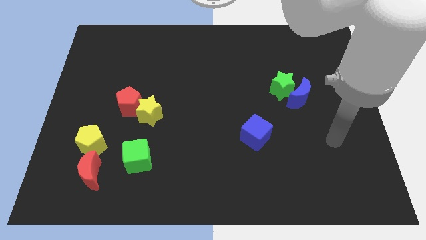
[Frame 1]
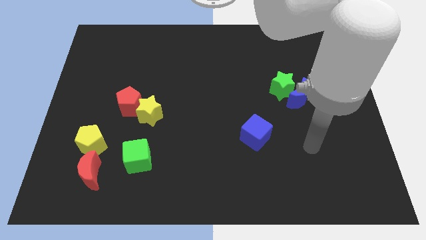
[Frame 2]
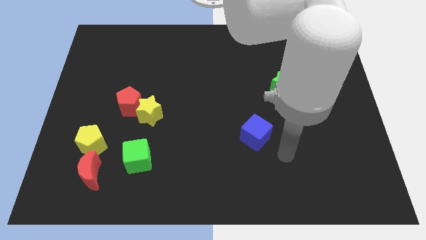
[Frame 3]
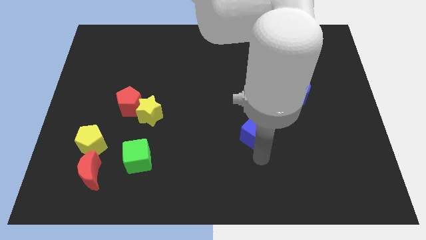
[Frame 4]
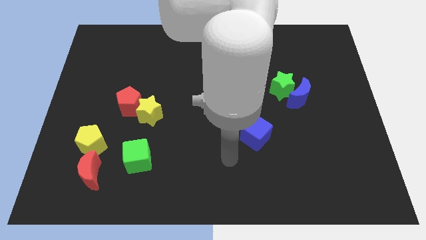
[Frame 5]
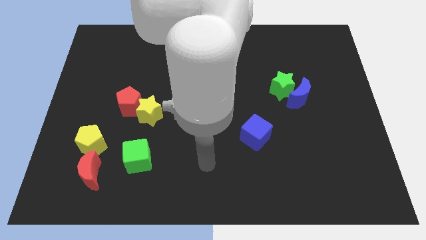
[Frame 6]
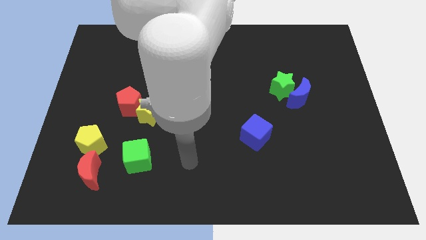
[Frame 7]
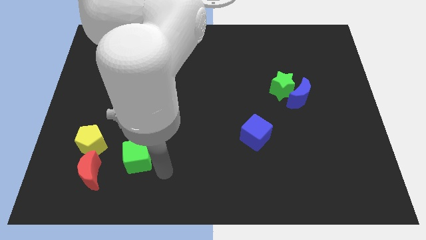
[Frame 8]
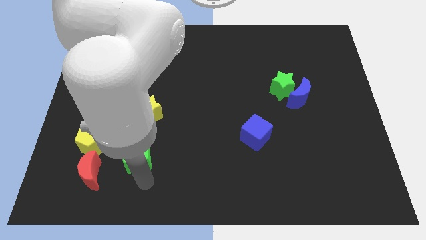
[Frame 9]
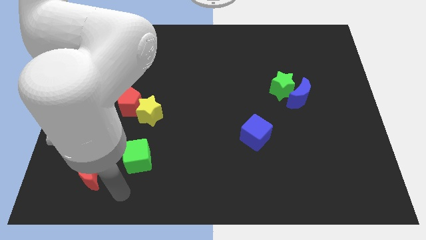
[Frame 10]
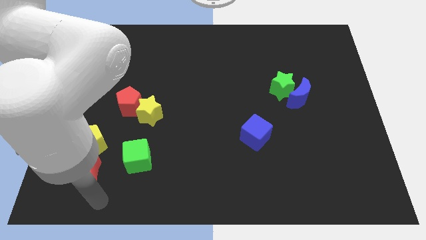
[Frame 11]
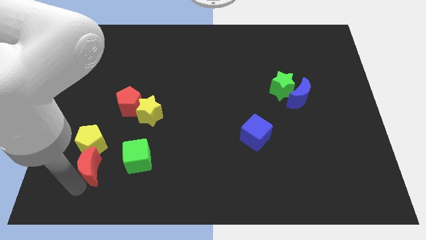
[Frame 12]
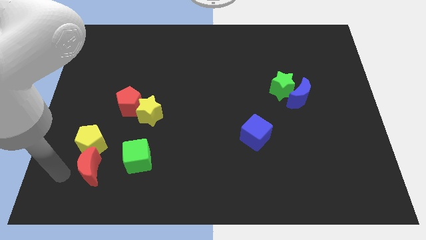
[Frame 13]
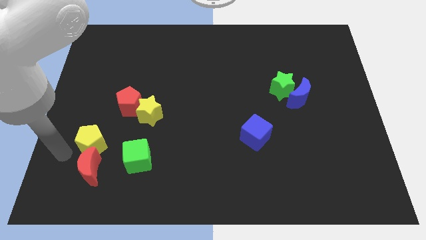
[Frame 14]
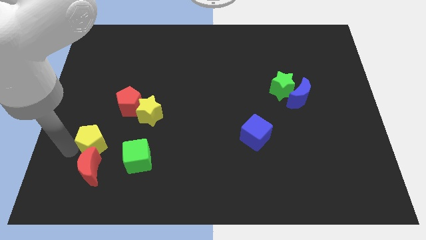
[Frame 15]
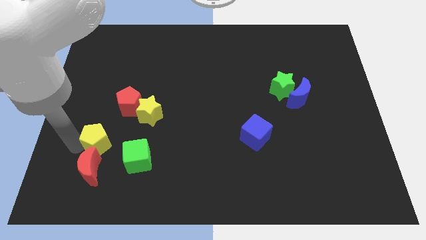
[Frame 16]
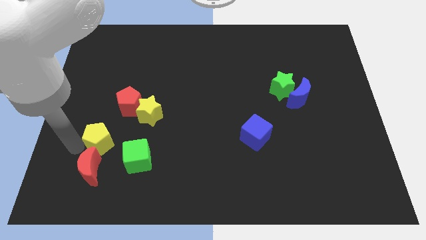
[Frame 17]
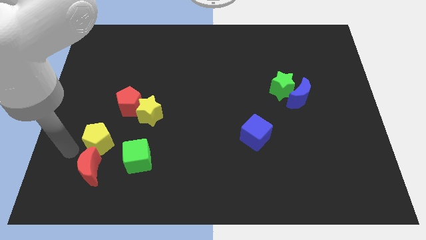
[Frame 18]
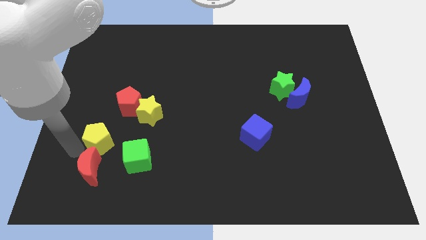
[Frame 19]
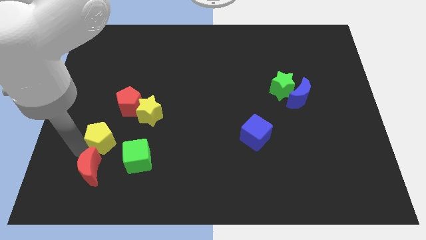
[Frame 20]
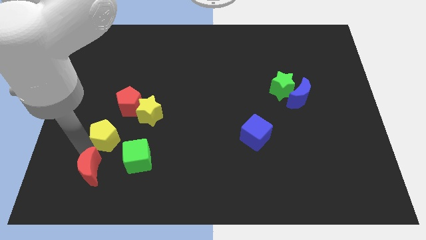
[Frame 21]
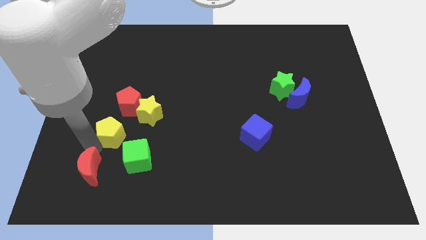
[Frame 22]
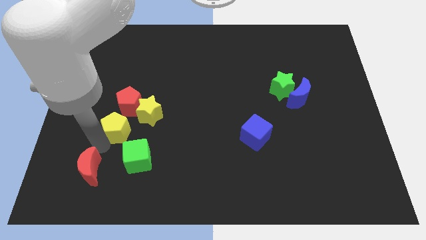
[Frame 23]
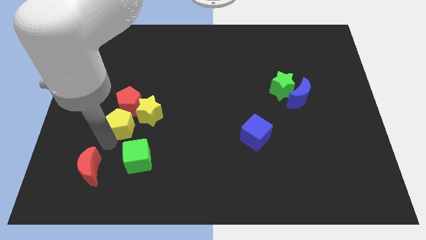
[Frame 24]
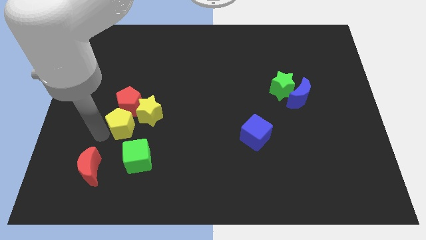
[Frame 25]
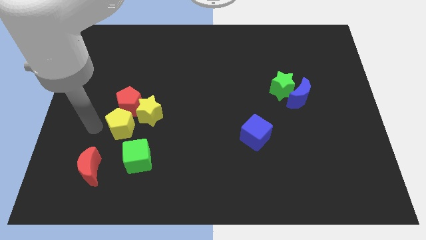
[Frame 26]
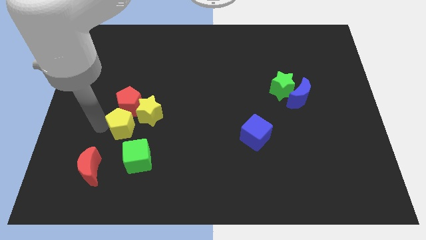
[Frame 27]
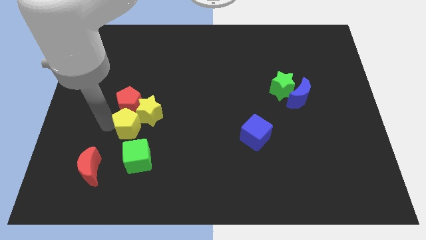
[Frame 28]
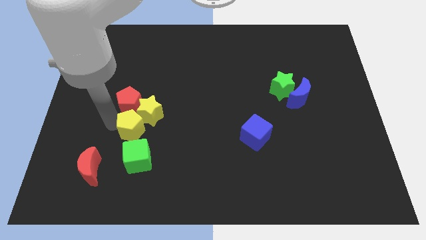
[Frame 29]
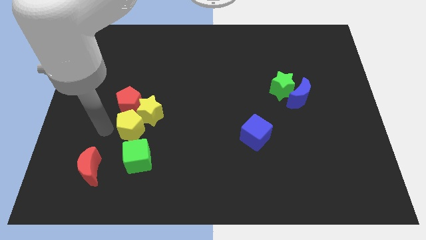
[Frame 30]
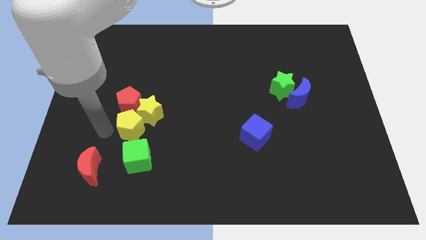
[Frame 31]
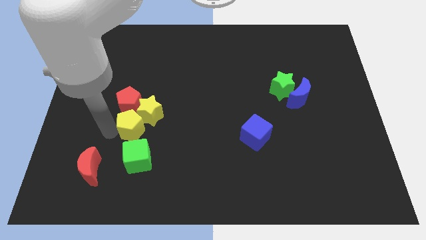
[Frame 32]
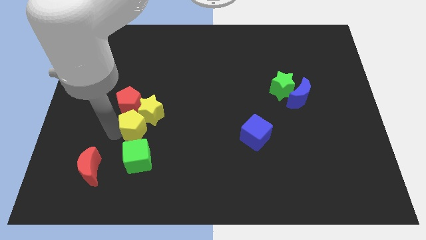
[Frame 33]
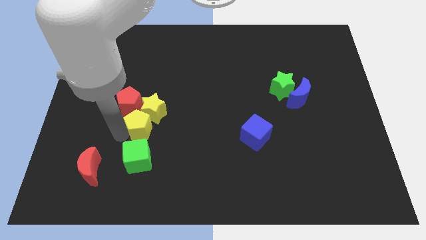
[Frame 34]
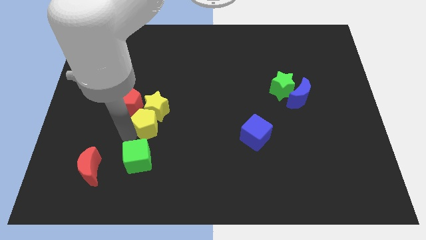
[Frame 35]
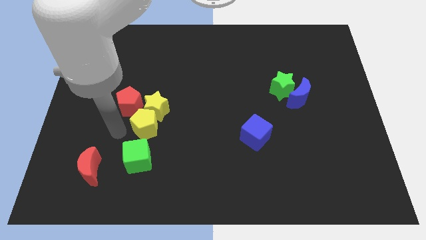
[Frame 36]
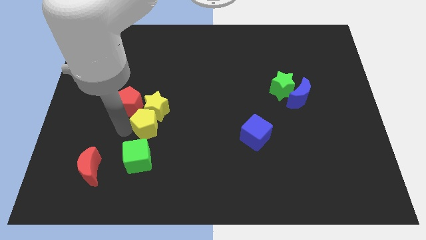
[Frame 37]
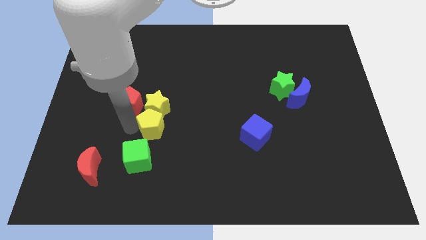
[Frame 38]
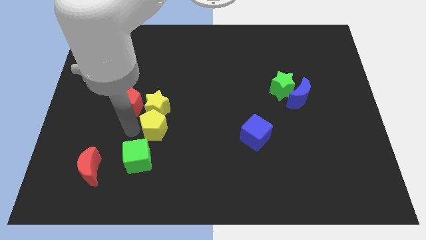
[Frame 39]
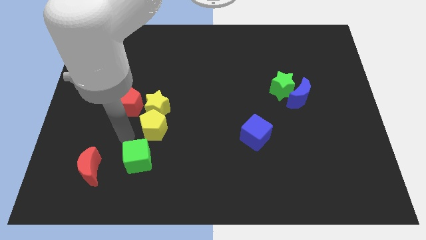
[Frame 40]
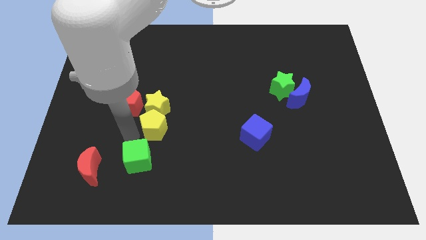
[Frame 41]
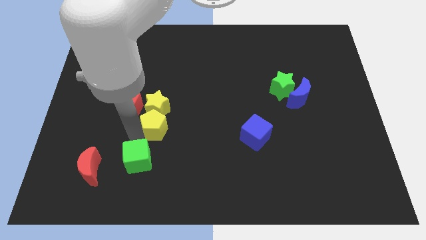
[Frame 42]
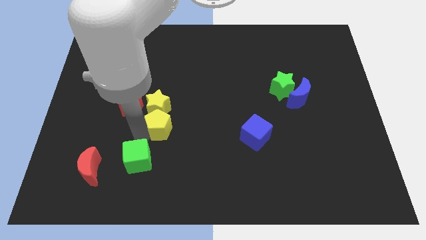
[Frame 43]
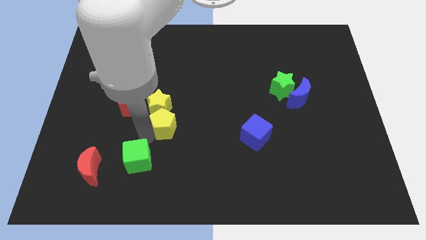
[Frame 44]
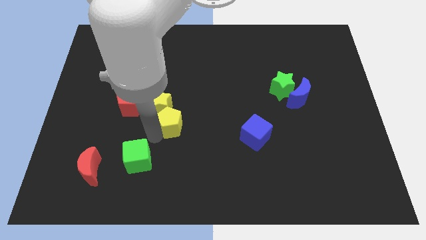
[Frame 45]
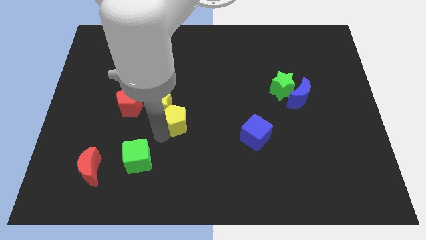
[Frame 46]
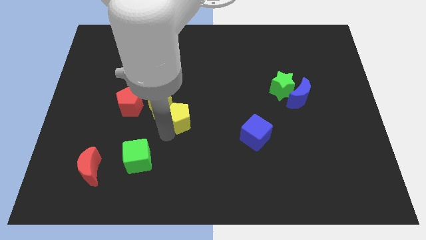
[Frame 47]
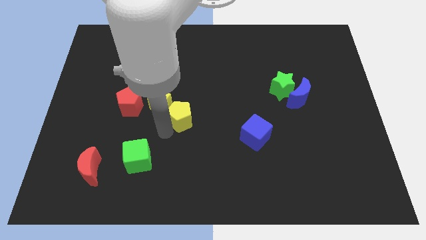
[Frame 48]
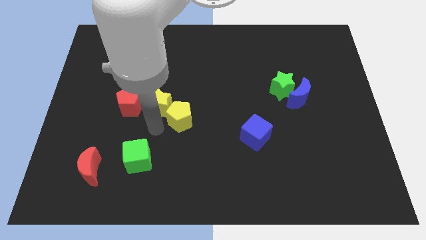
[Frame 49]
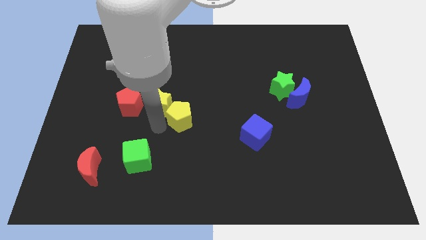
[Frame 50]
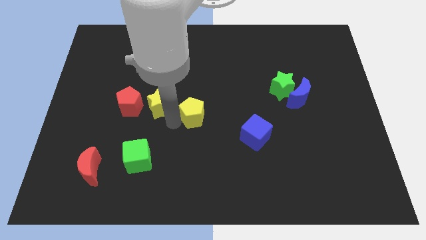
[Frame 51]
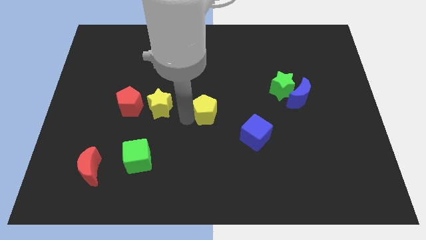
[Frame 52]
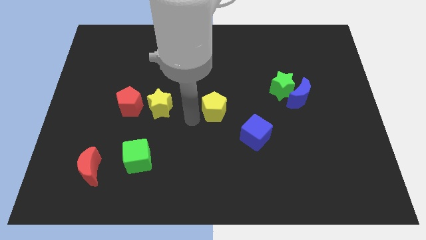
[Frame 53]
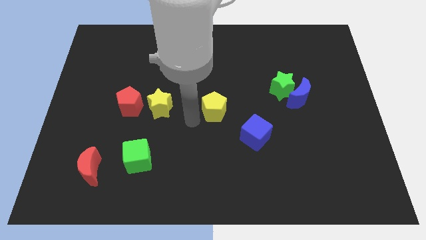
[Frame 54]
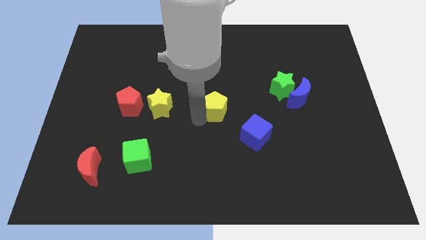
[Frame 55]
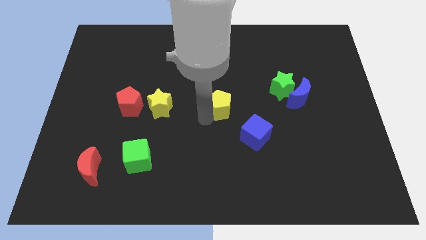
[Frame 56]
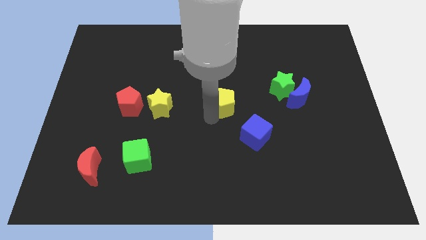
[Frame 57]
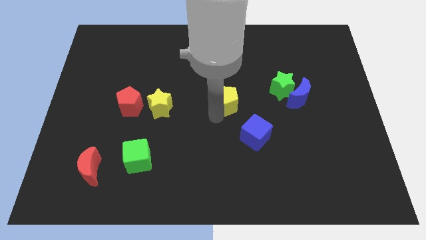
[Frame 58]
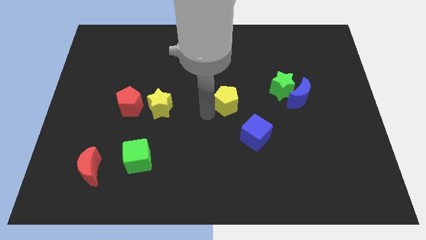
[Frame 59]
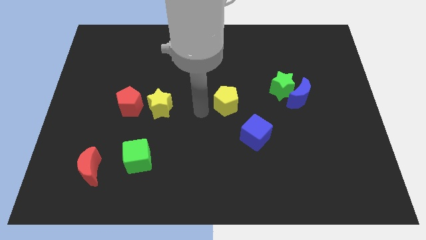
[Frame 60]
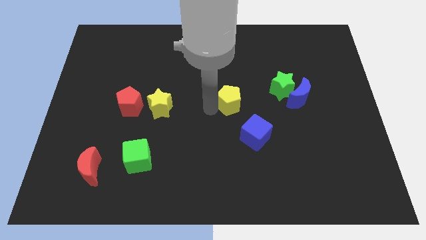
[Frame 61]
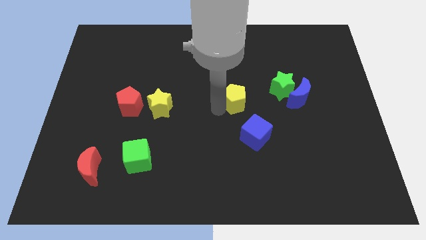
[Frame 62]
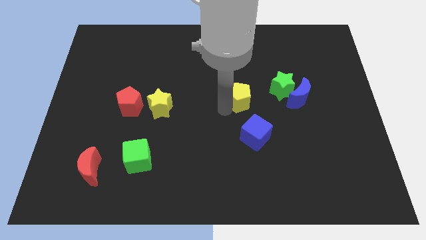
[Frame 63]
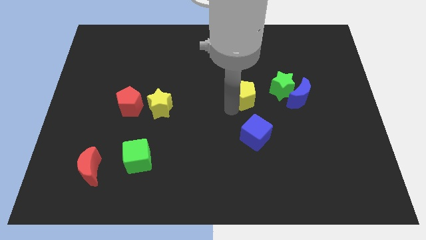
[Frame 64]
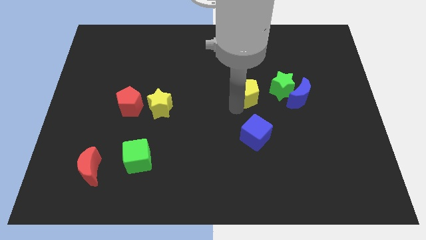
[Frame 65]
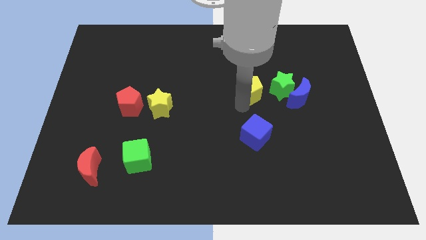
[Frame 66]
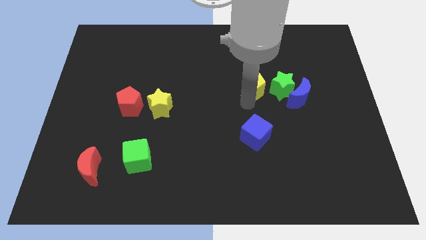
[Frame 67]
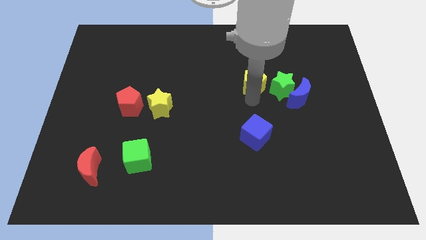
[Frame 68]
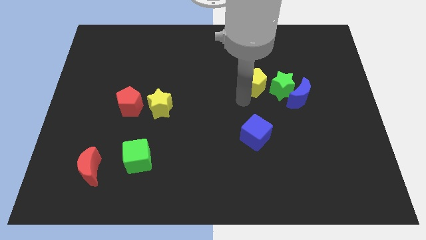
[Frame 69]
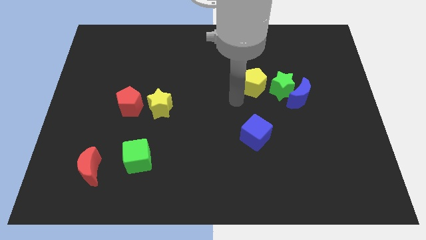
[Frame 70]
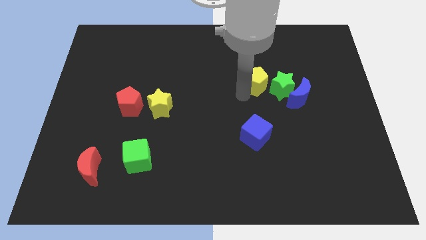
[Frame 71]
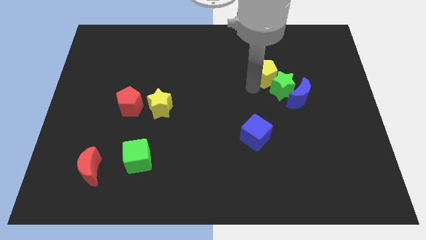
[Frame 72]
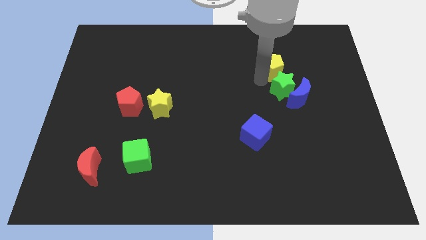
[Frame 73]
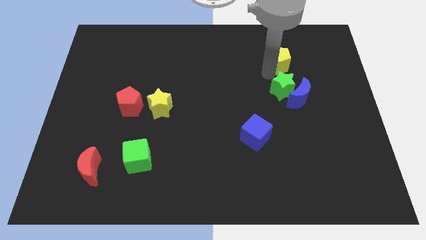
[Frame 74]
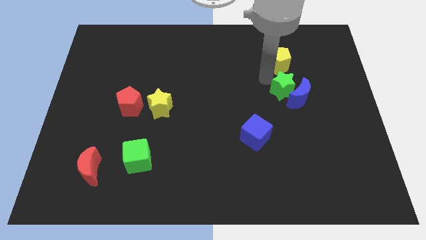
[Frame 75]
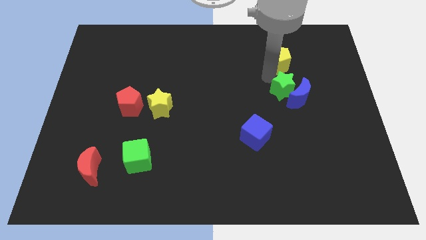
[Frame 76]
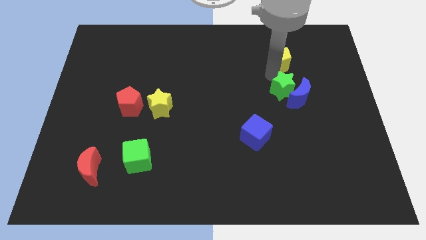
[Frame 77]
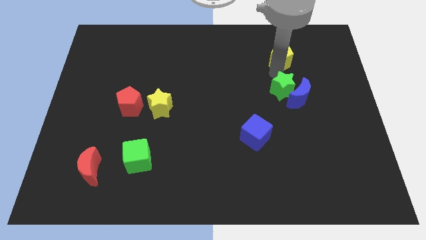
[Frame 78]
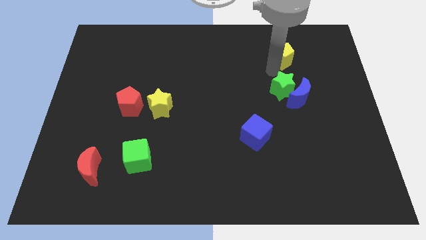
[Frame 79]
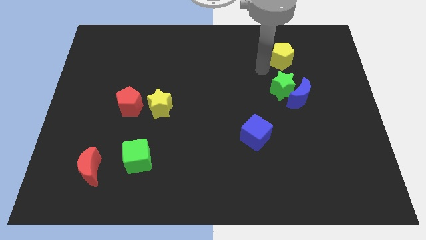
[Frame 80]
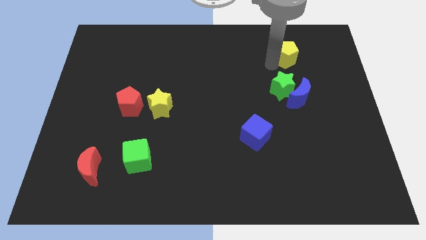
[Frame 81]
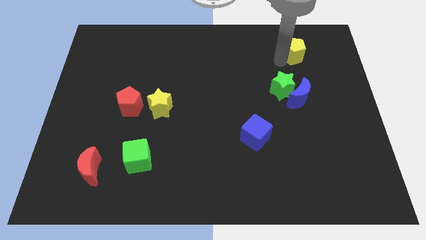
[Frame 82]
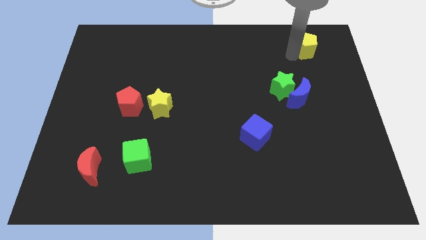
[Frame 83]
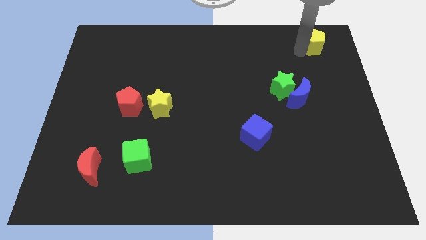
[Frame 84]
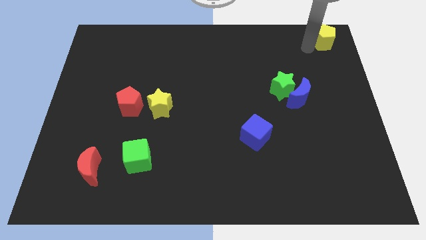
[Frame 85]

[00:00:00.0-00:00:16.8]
put the yellow pentagon to the top right

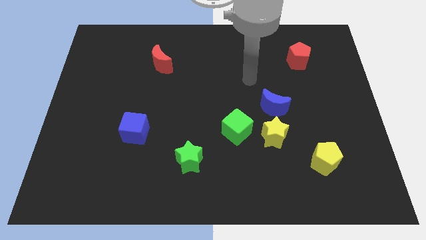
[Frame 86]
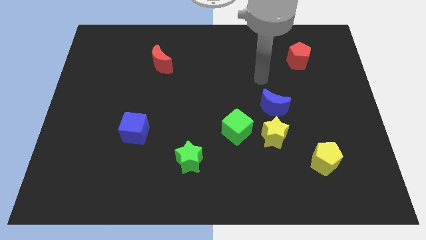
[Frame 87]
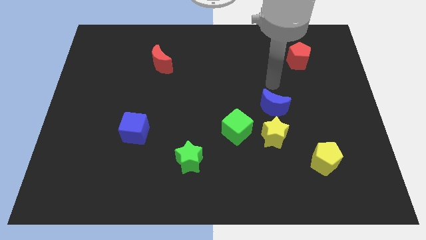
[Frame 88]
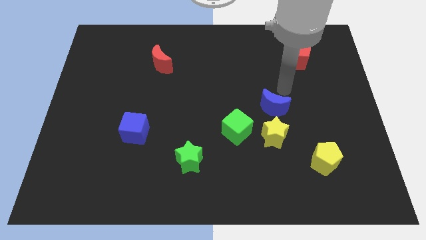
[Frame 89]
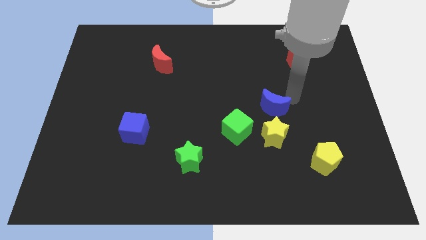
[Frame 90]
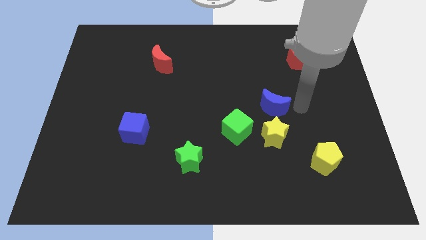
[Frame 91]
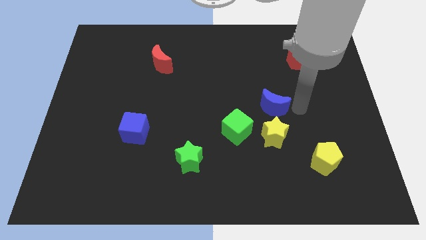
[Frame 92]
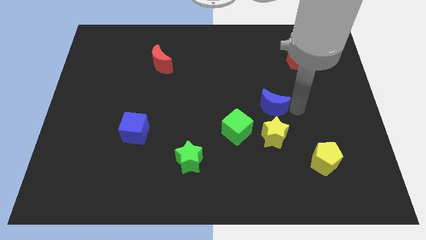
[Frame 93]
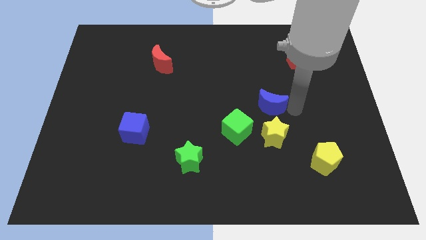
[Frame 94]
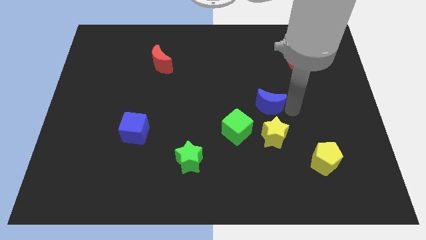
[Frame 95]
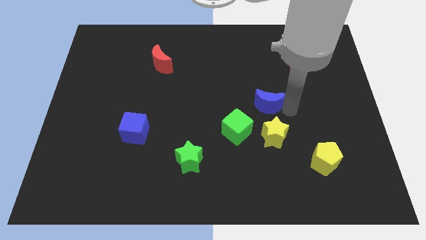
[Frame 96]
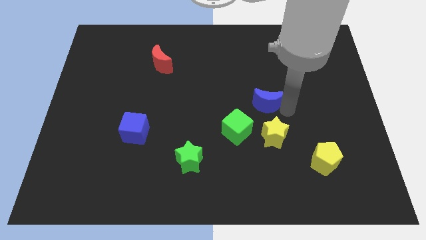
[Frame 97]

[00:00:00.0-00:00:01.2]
put the blue moon to the middle
